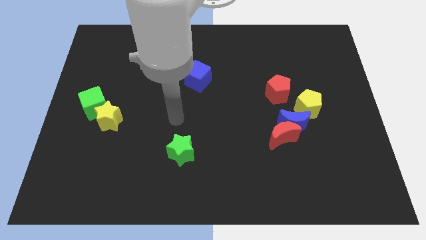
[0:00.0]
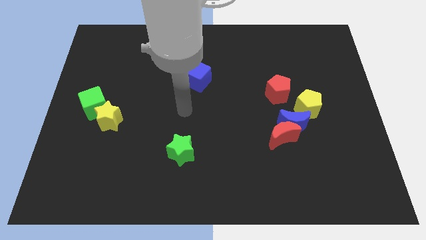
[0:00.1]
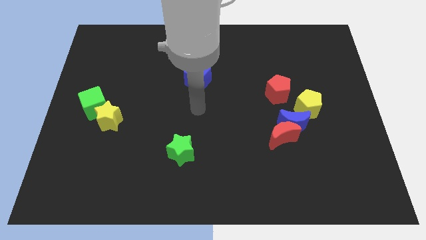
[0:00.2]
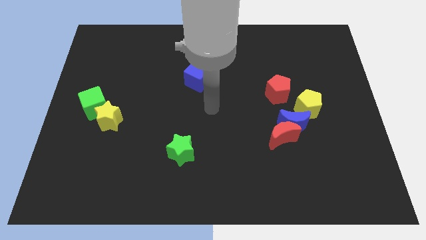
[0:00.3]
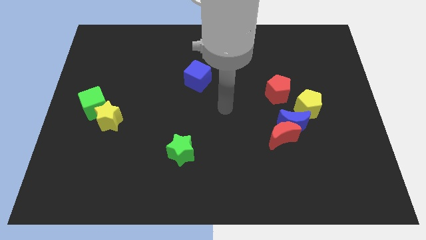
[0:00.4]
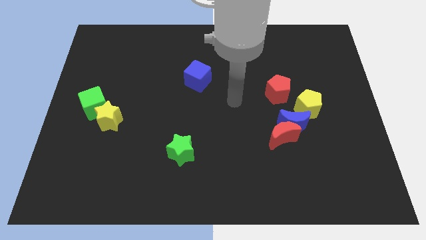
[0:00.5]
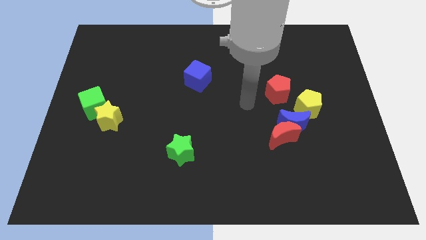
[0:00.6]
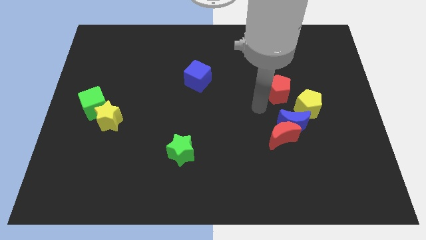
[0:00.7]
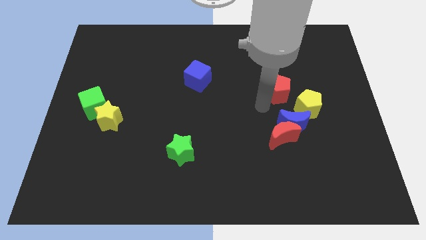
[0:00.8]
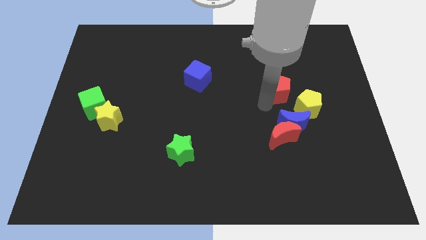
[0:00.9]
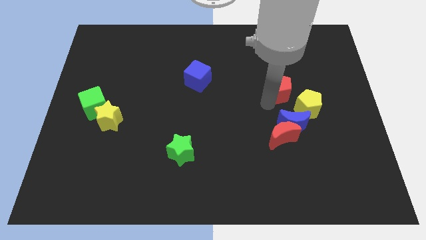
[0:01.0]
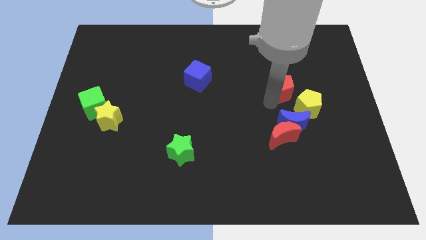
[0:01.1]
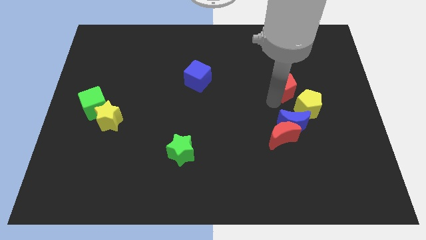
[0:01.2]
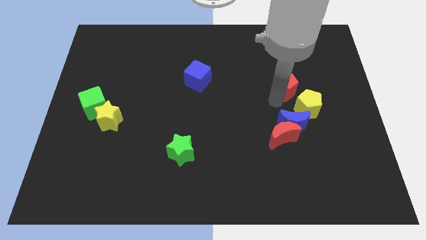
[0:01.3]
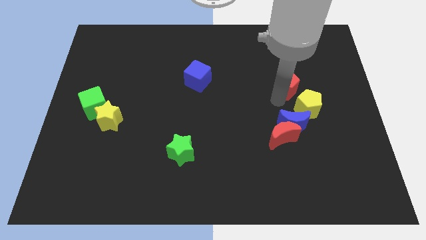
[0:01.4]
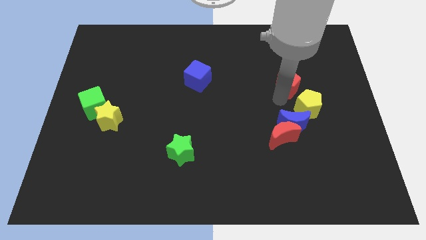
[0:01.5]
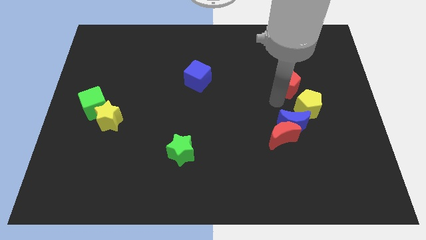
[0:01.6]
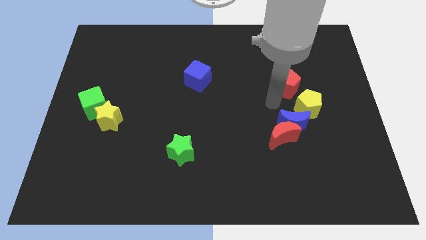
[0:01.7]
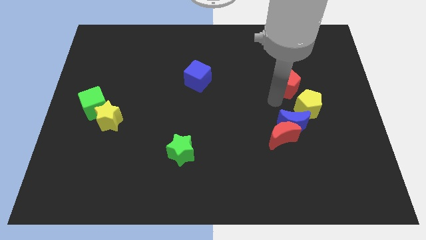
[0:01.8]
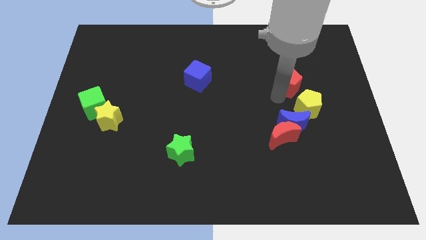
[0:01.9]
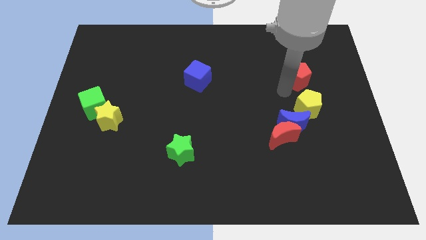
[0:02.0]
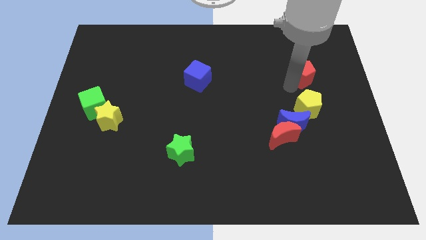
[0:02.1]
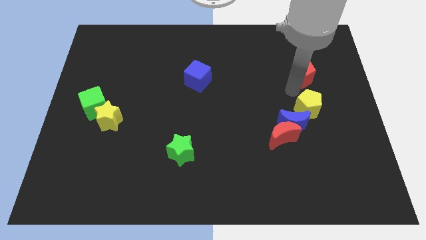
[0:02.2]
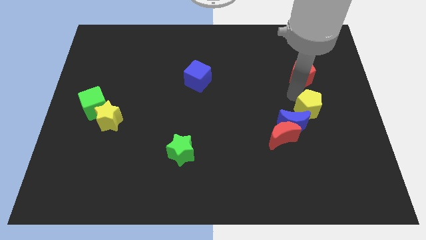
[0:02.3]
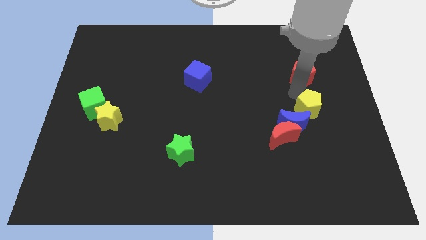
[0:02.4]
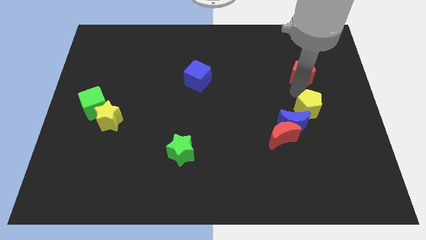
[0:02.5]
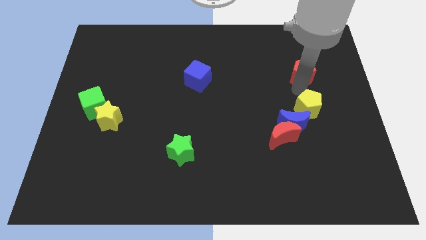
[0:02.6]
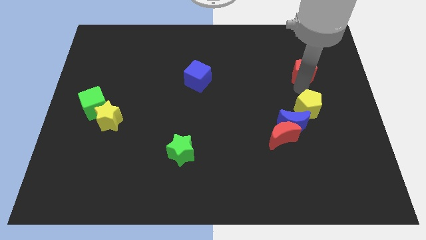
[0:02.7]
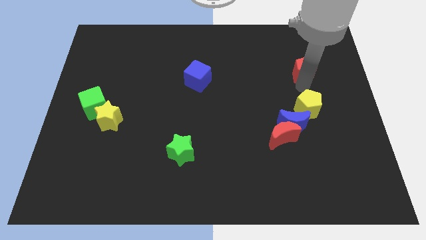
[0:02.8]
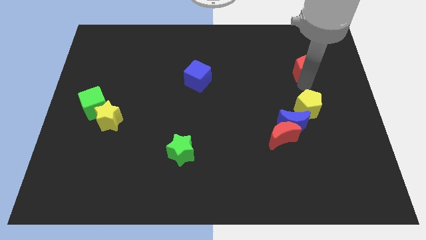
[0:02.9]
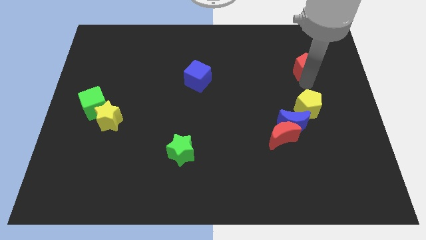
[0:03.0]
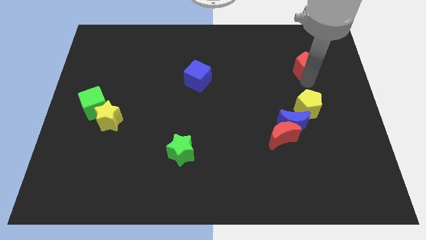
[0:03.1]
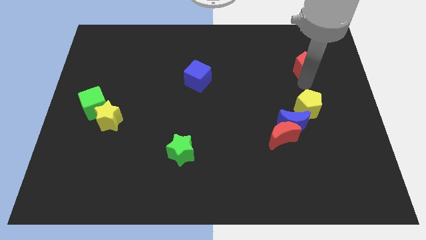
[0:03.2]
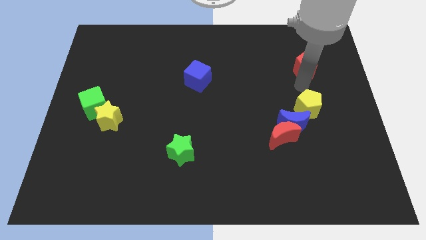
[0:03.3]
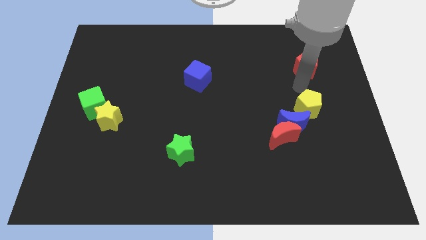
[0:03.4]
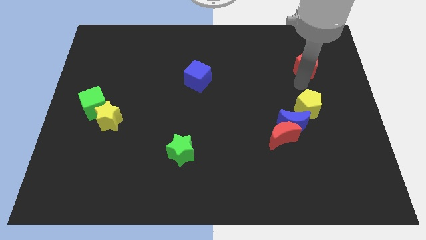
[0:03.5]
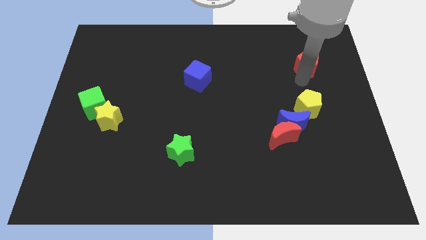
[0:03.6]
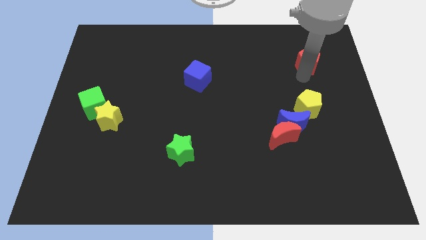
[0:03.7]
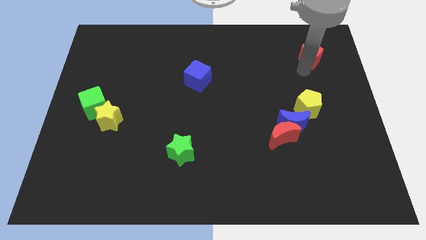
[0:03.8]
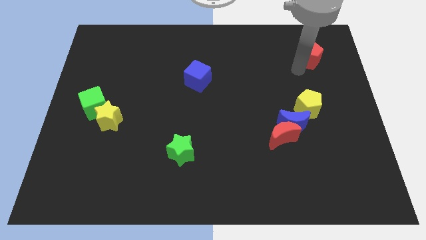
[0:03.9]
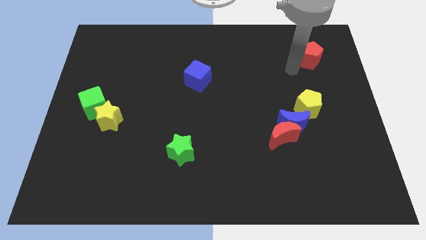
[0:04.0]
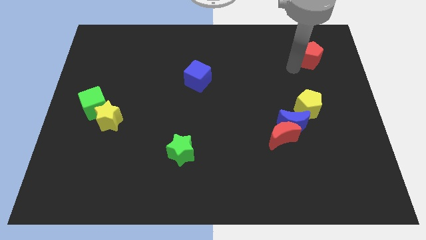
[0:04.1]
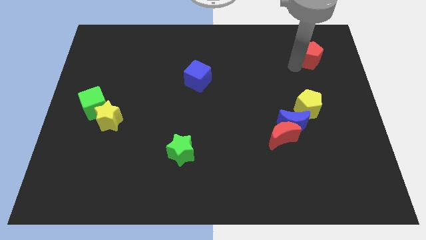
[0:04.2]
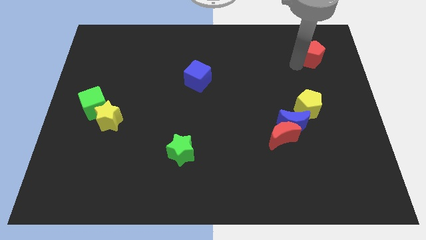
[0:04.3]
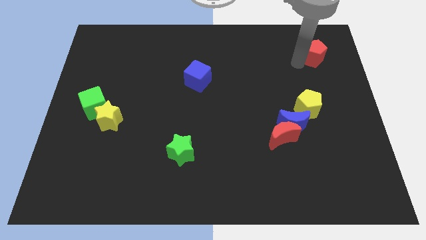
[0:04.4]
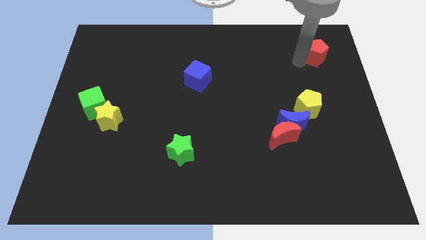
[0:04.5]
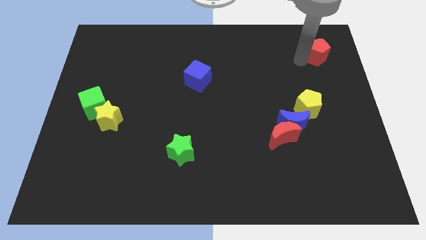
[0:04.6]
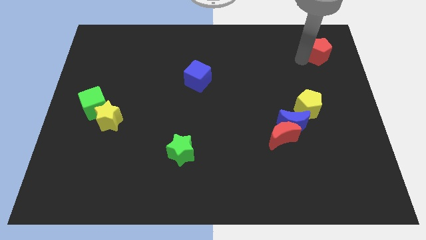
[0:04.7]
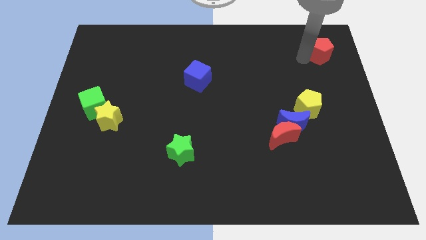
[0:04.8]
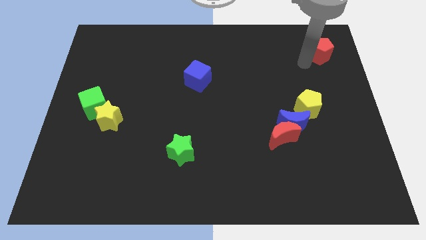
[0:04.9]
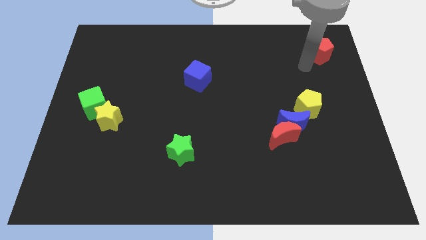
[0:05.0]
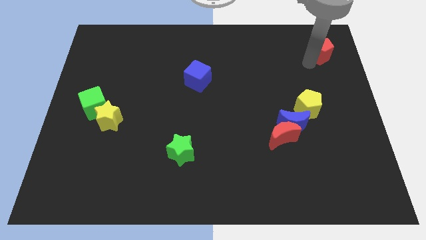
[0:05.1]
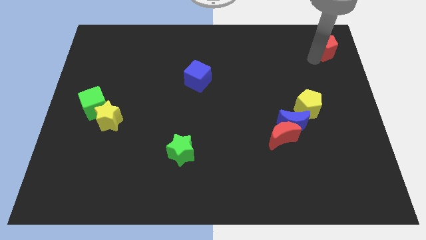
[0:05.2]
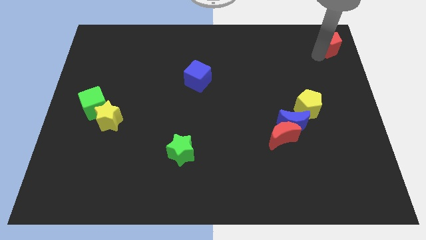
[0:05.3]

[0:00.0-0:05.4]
slide the red pentagon to the upper right corner

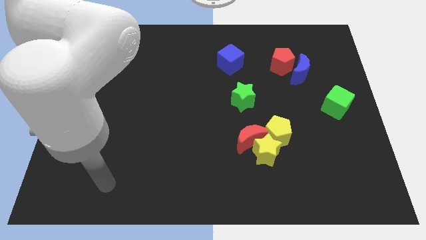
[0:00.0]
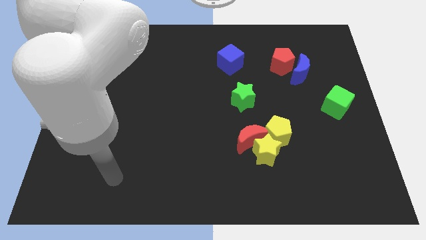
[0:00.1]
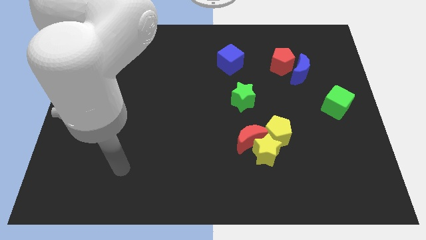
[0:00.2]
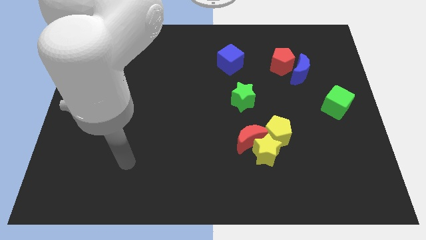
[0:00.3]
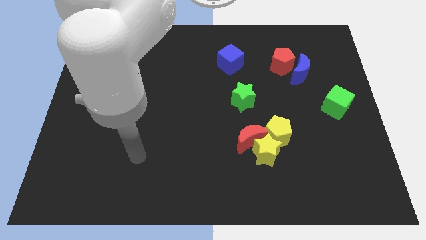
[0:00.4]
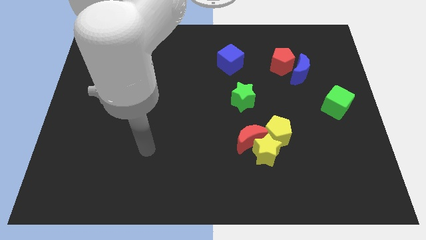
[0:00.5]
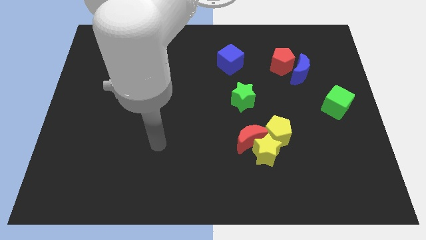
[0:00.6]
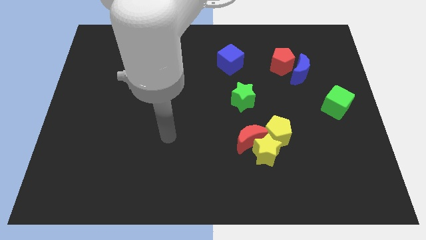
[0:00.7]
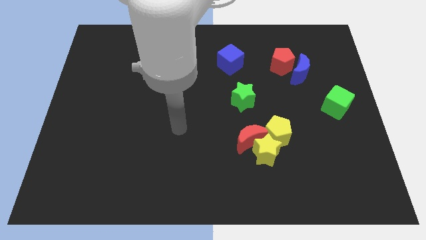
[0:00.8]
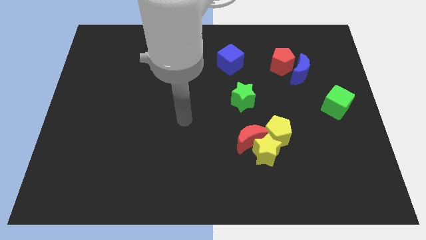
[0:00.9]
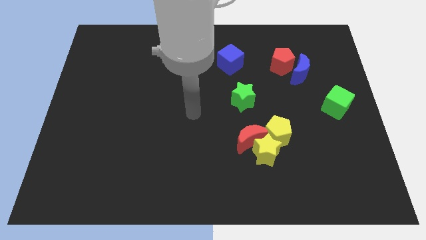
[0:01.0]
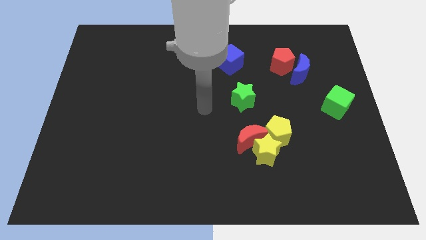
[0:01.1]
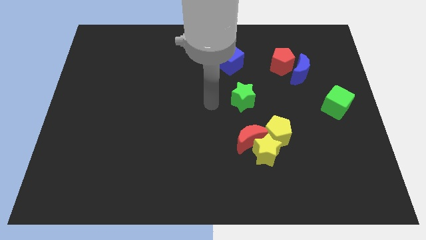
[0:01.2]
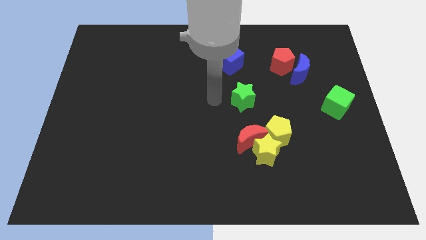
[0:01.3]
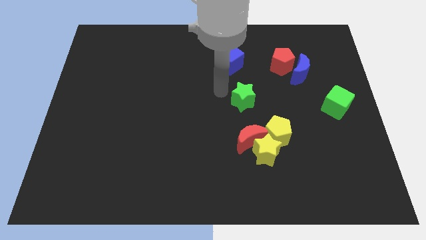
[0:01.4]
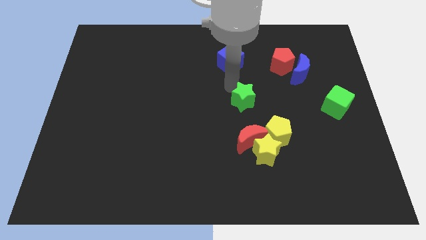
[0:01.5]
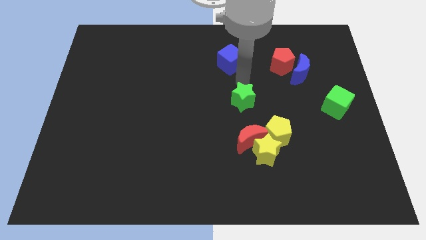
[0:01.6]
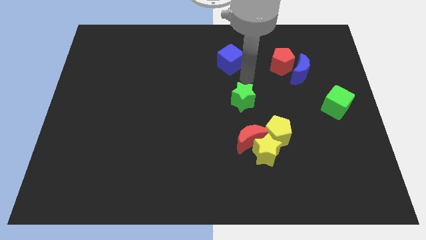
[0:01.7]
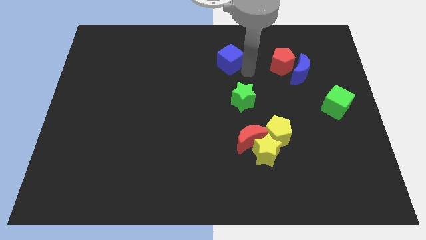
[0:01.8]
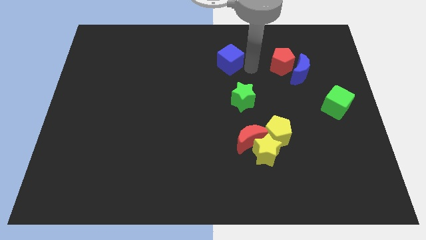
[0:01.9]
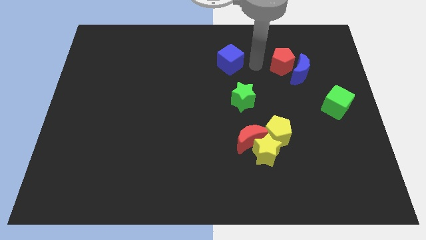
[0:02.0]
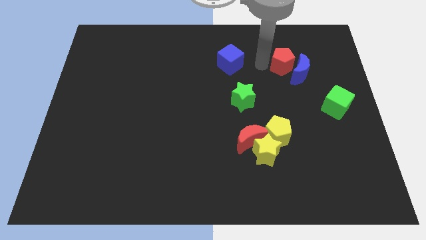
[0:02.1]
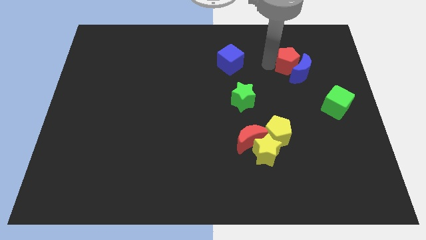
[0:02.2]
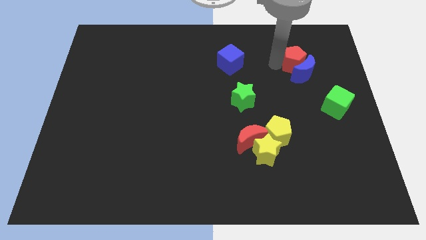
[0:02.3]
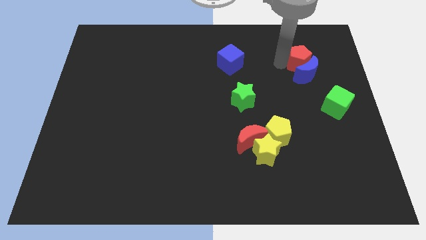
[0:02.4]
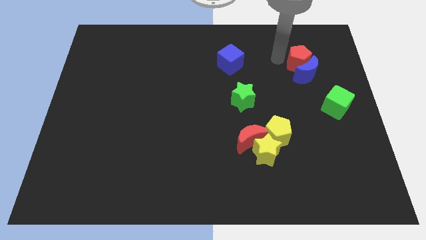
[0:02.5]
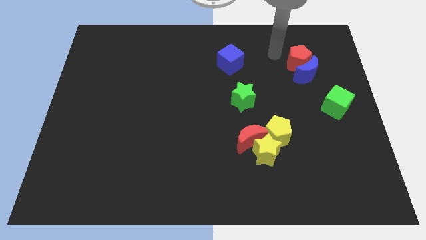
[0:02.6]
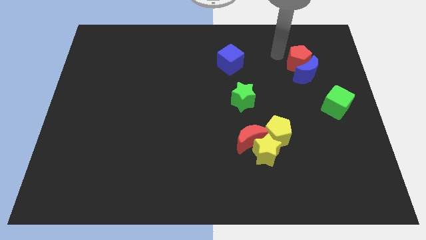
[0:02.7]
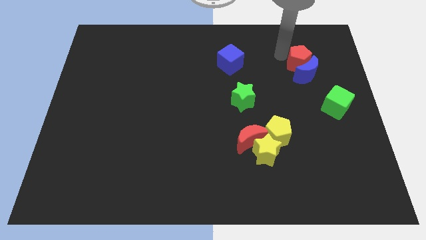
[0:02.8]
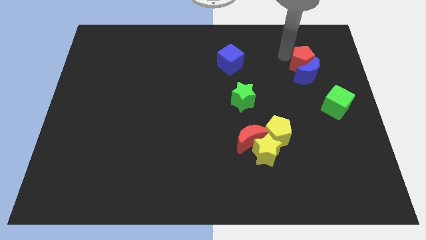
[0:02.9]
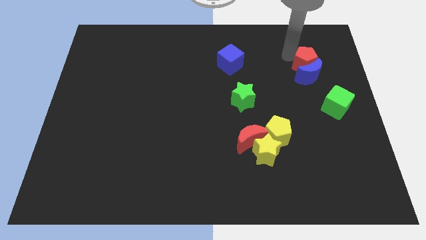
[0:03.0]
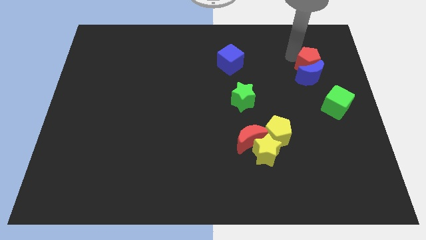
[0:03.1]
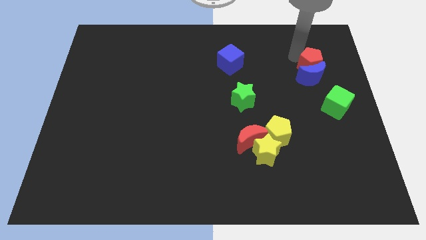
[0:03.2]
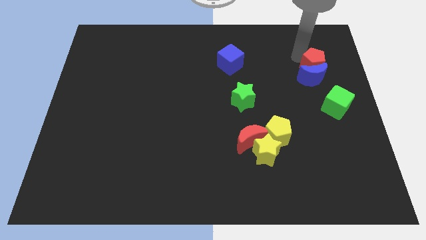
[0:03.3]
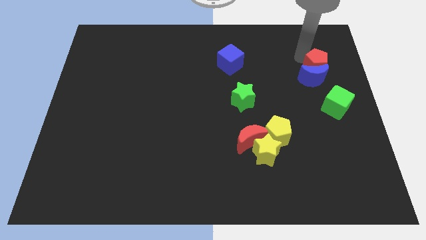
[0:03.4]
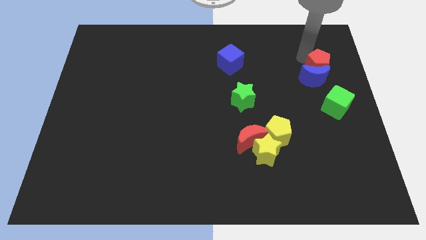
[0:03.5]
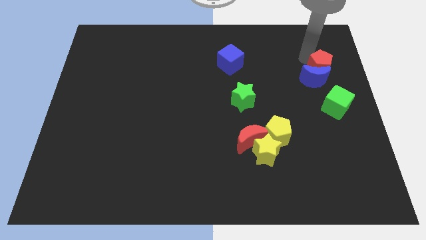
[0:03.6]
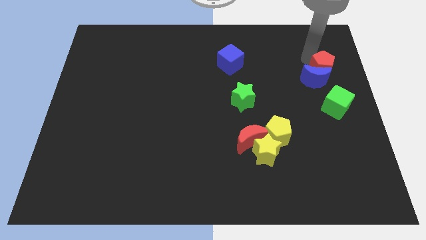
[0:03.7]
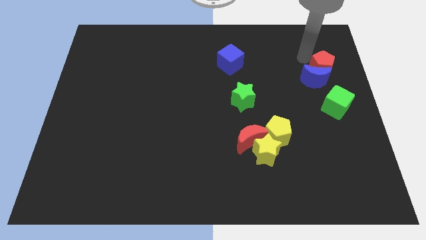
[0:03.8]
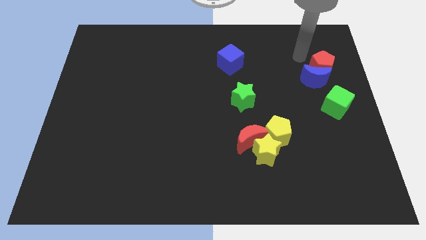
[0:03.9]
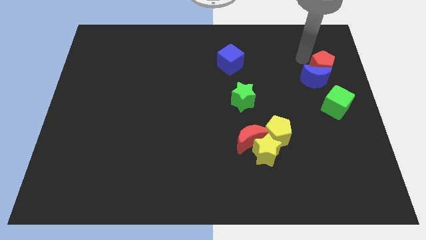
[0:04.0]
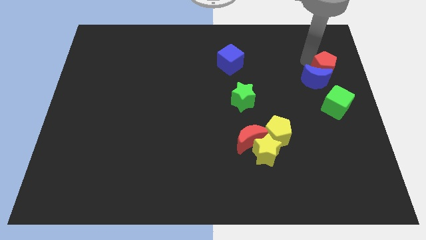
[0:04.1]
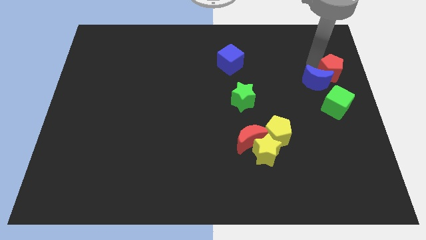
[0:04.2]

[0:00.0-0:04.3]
put the red pentagon to the center right
